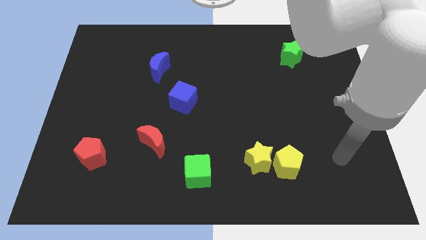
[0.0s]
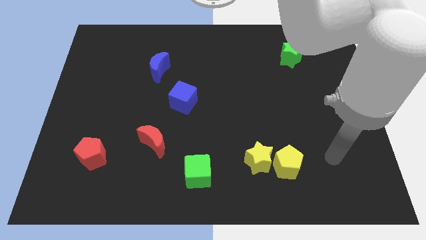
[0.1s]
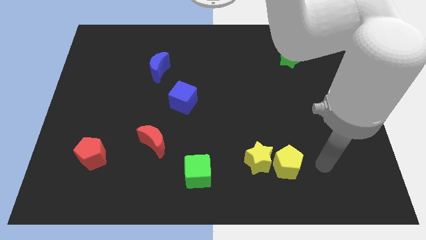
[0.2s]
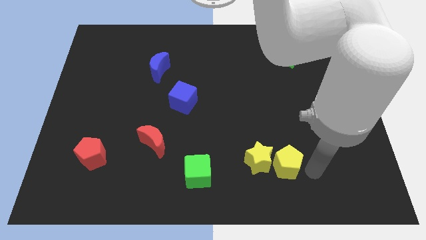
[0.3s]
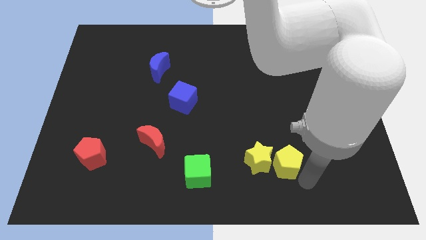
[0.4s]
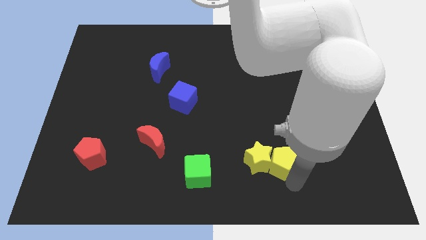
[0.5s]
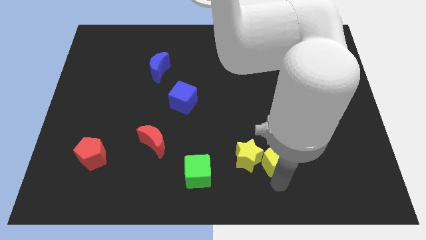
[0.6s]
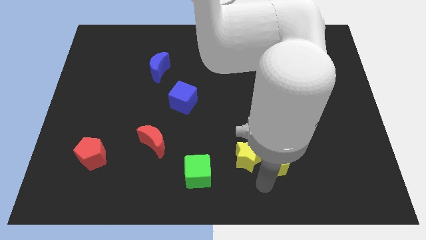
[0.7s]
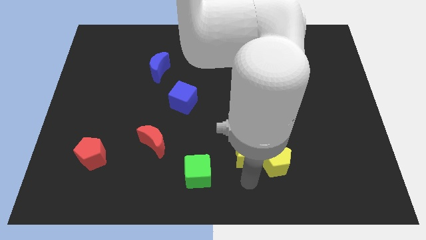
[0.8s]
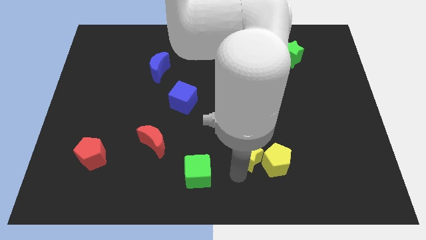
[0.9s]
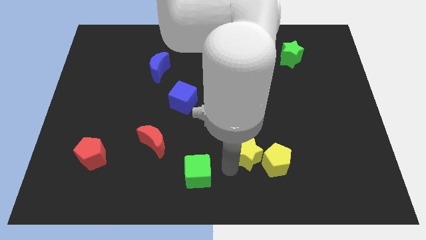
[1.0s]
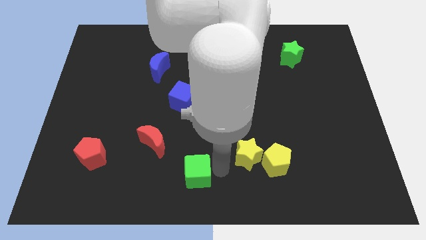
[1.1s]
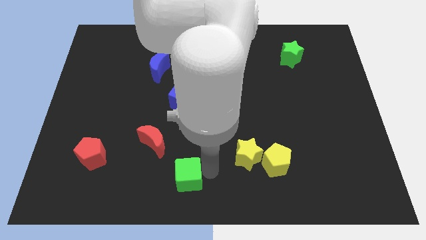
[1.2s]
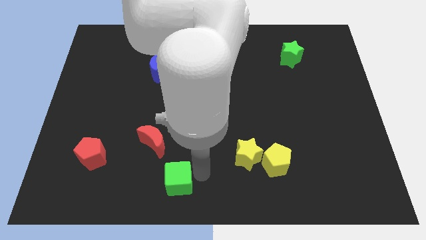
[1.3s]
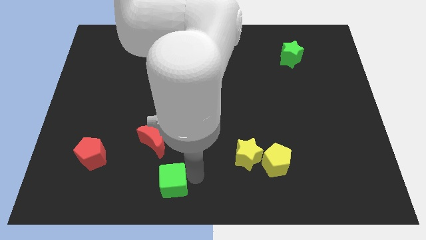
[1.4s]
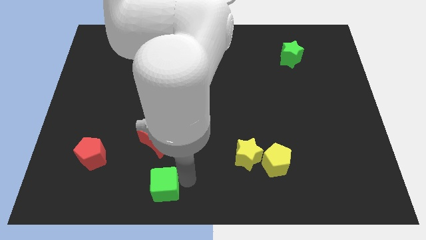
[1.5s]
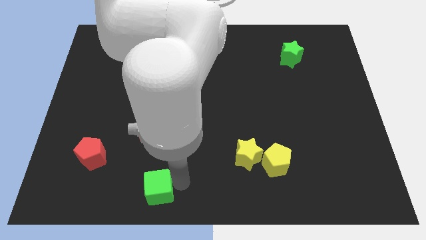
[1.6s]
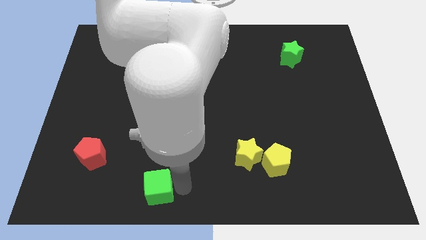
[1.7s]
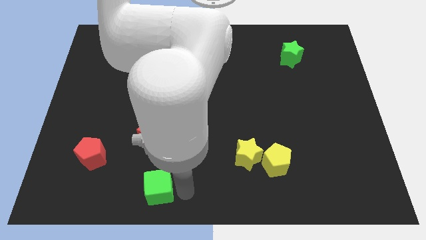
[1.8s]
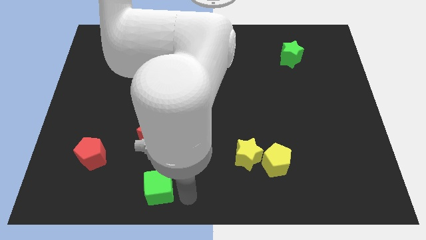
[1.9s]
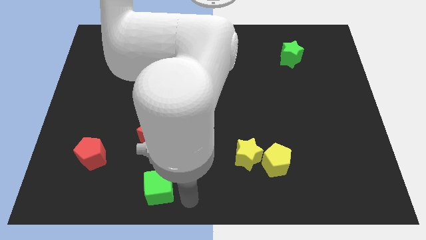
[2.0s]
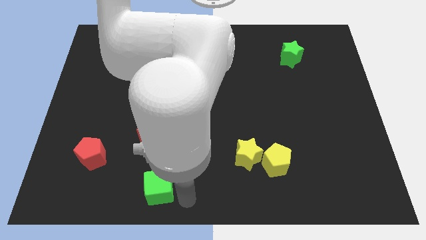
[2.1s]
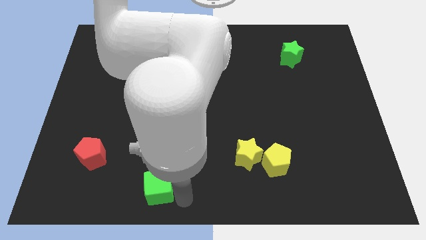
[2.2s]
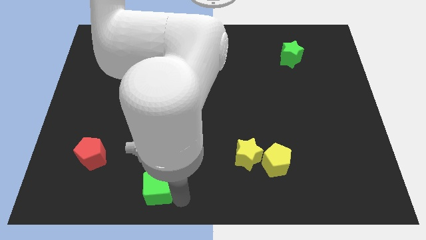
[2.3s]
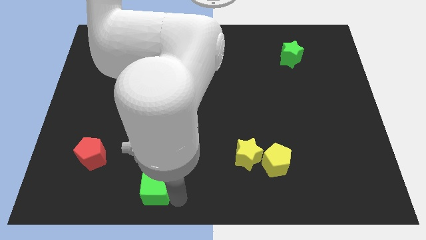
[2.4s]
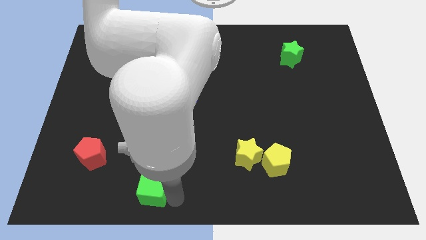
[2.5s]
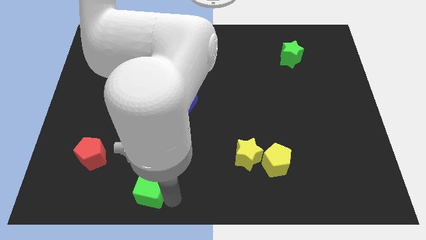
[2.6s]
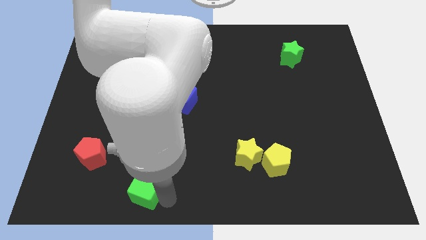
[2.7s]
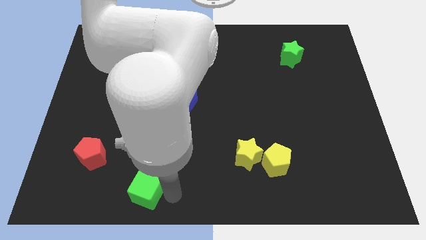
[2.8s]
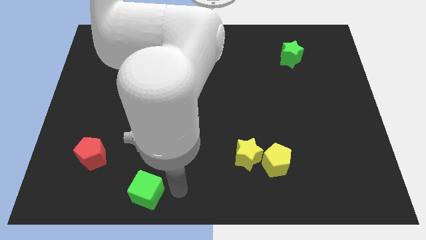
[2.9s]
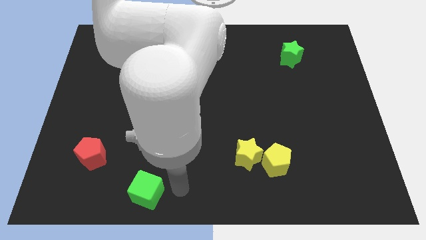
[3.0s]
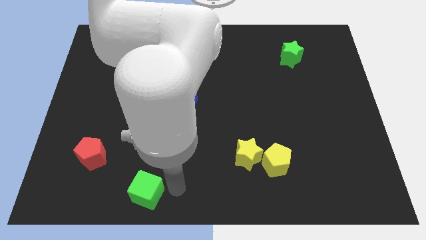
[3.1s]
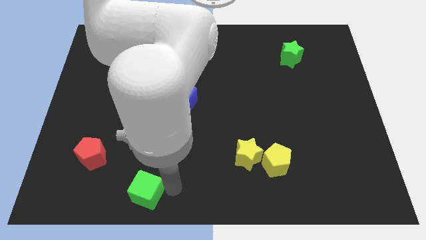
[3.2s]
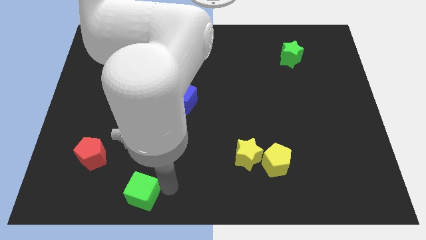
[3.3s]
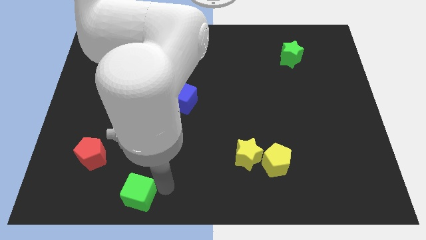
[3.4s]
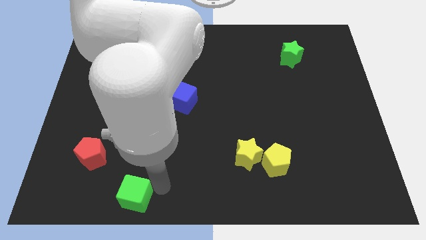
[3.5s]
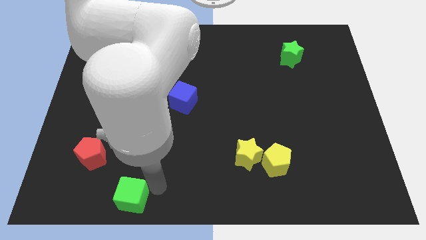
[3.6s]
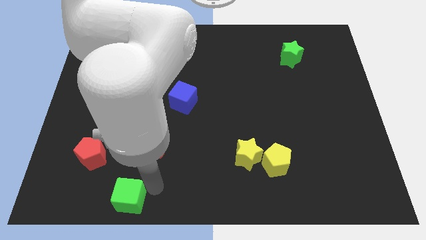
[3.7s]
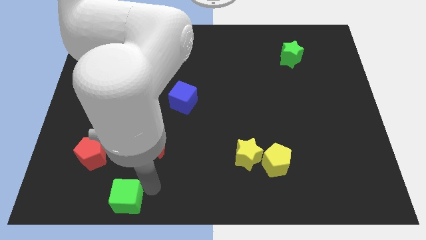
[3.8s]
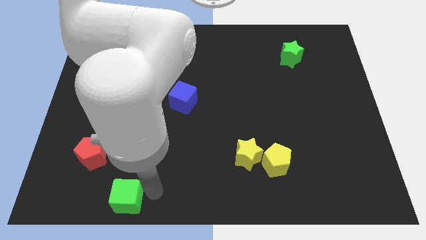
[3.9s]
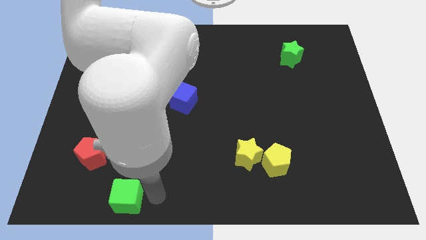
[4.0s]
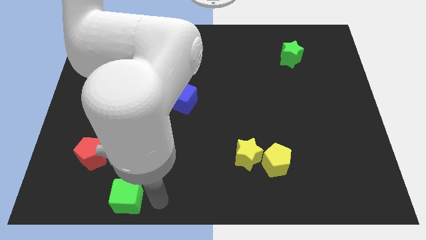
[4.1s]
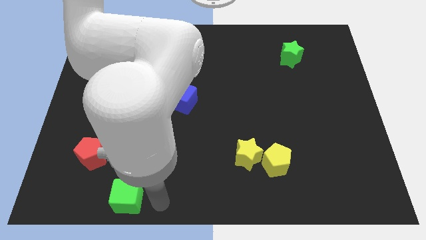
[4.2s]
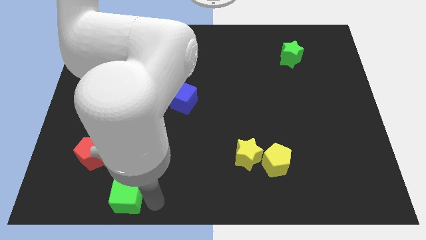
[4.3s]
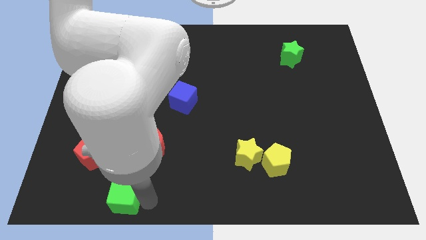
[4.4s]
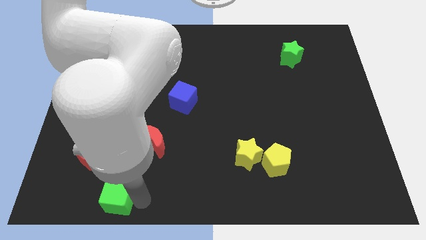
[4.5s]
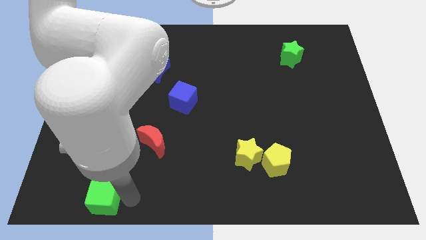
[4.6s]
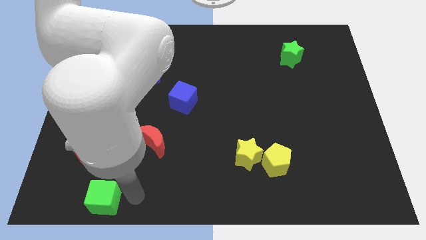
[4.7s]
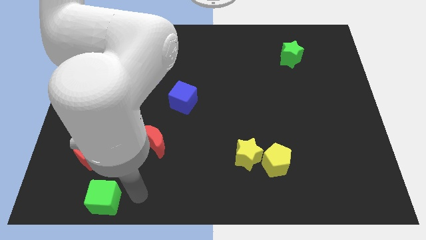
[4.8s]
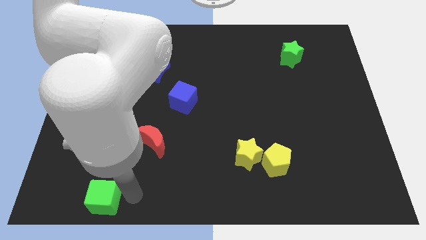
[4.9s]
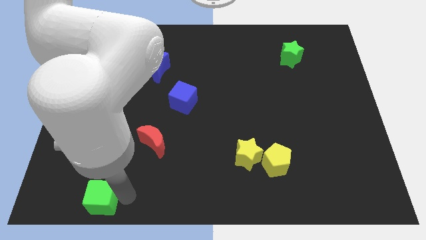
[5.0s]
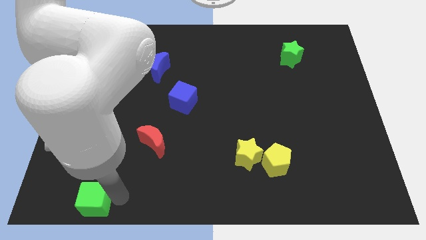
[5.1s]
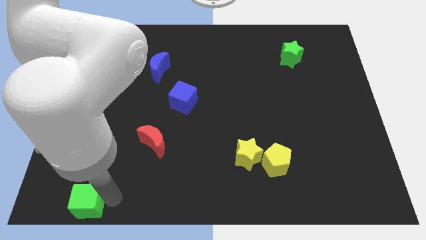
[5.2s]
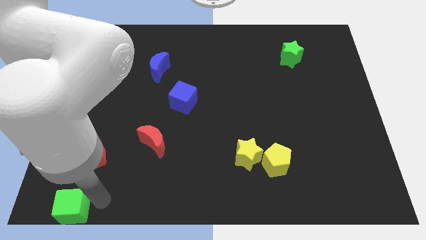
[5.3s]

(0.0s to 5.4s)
put the green cube to the bottom left of the board

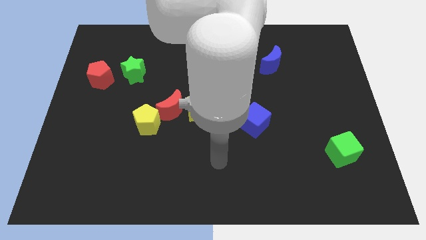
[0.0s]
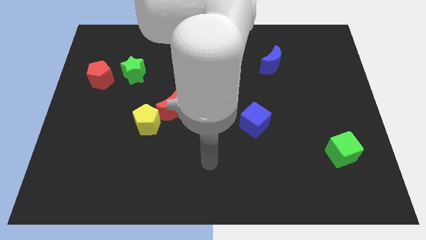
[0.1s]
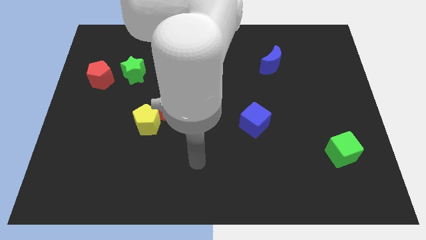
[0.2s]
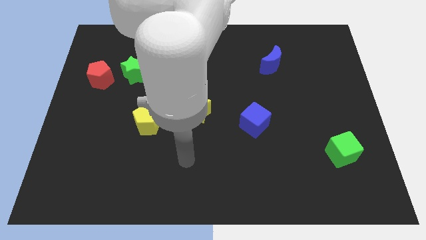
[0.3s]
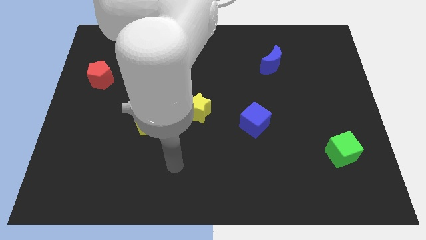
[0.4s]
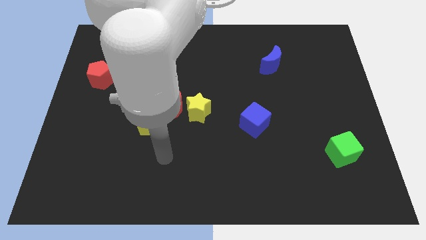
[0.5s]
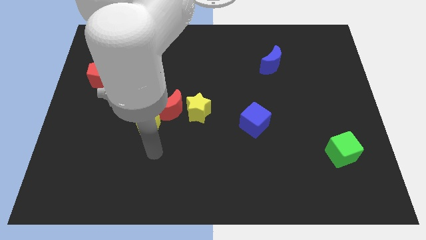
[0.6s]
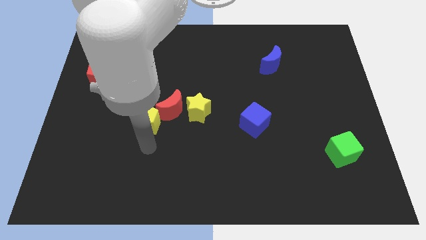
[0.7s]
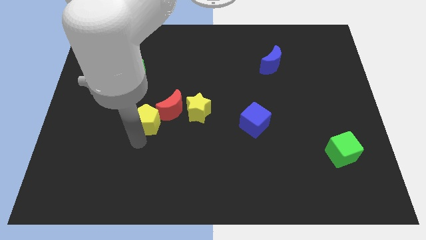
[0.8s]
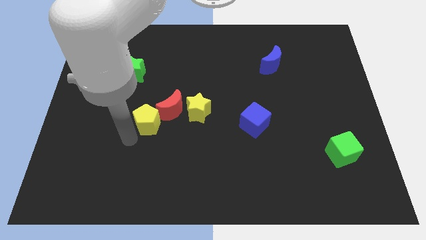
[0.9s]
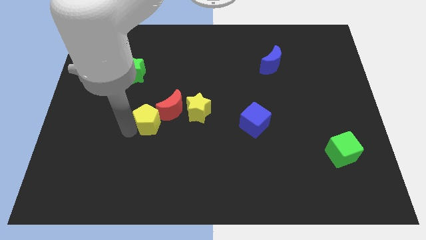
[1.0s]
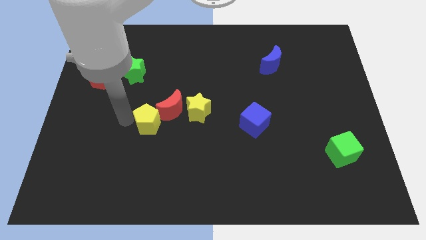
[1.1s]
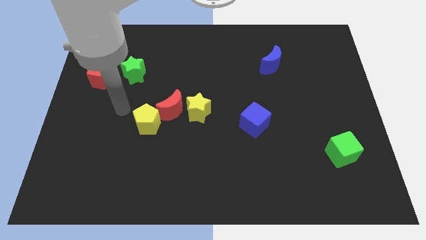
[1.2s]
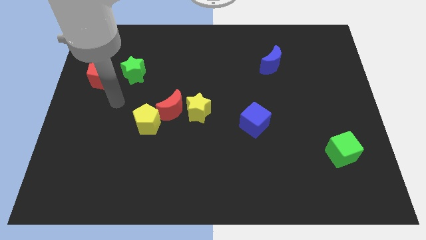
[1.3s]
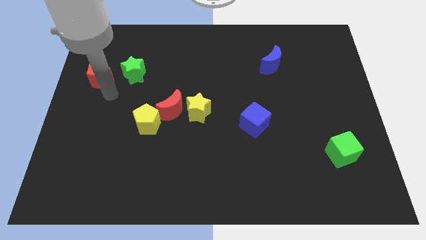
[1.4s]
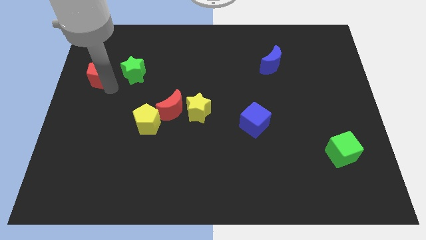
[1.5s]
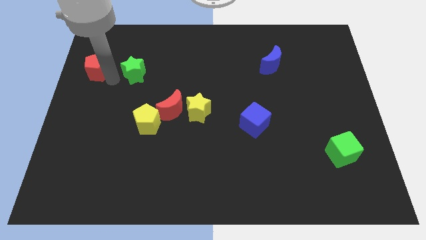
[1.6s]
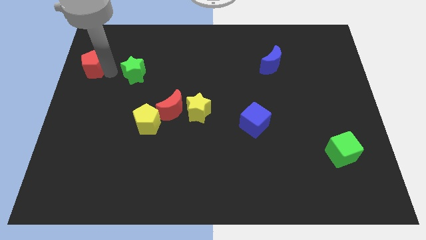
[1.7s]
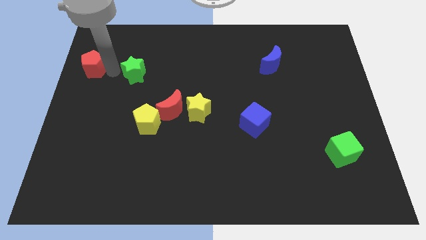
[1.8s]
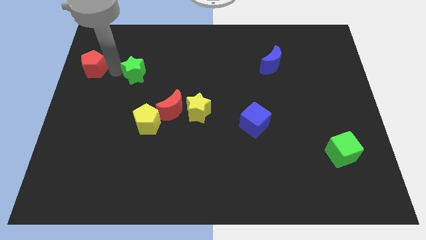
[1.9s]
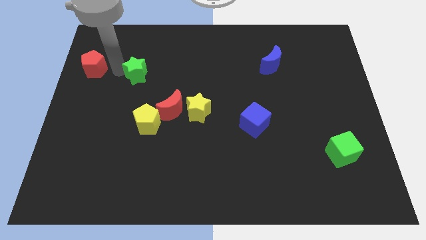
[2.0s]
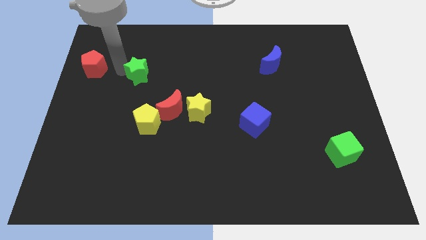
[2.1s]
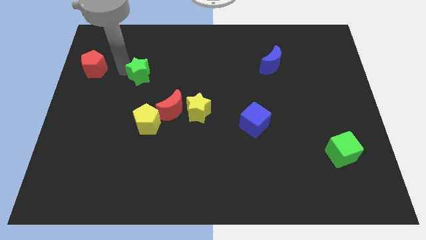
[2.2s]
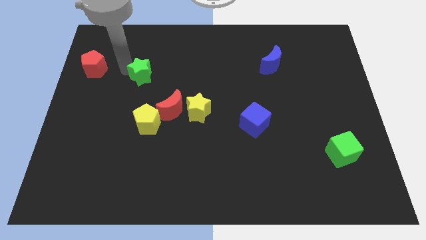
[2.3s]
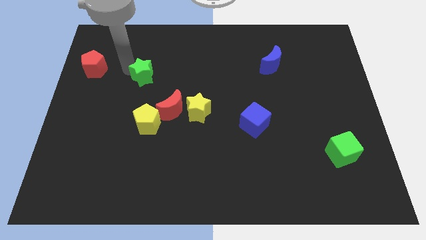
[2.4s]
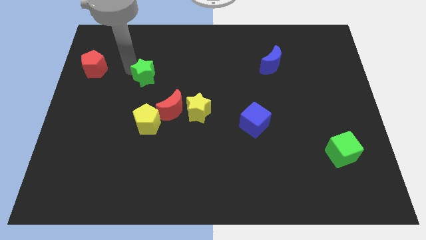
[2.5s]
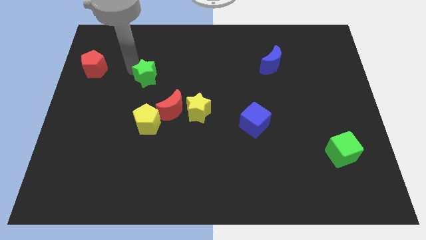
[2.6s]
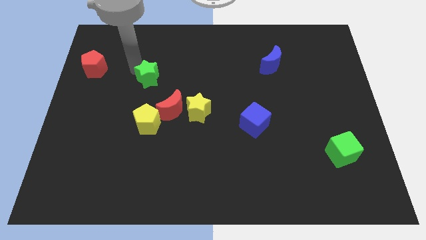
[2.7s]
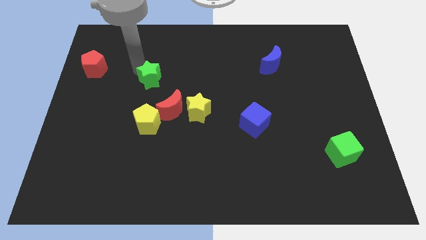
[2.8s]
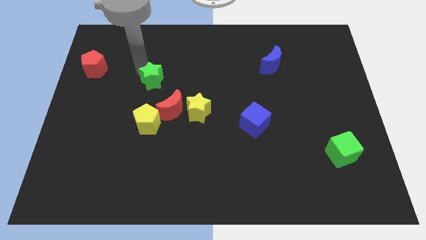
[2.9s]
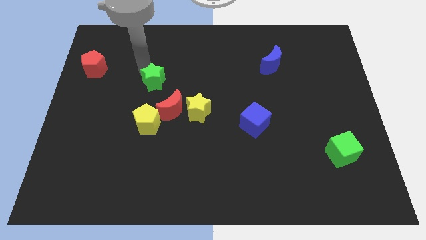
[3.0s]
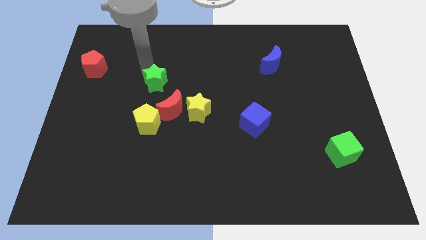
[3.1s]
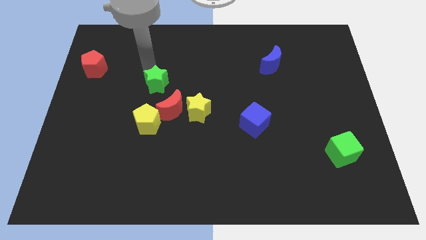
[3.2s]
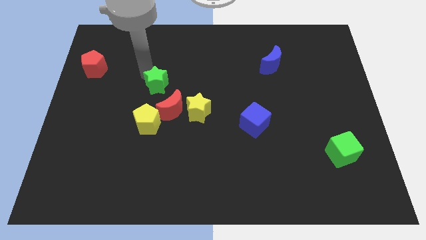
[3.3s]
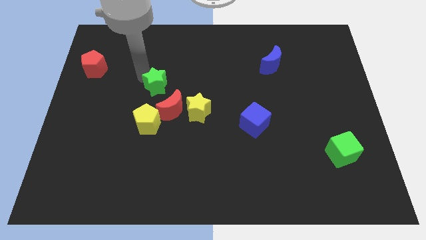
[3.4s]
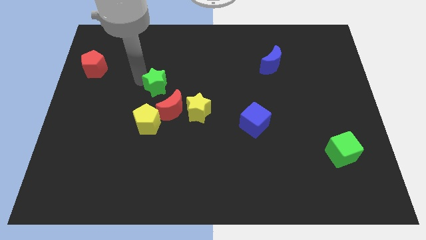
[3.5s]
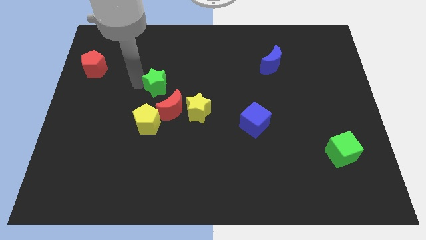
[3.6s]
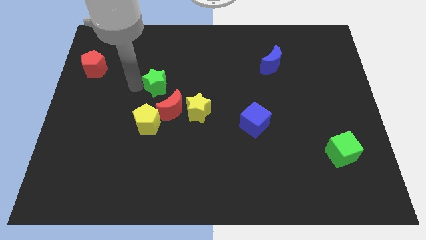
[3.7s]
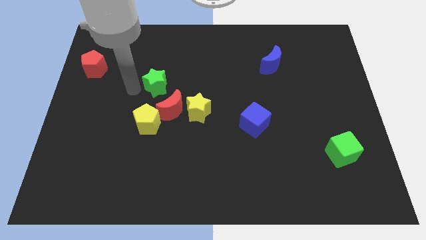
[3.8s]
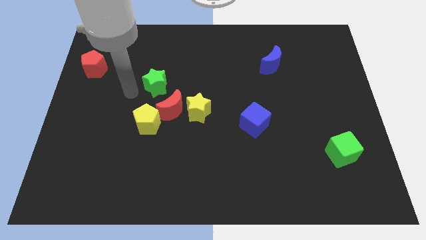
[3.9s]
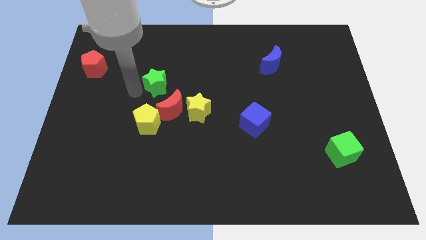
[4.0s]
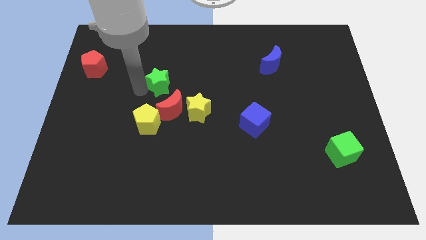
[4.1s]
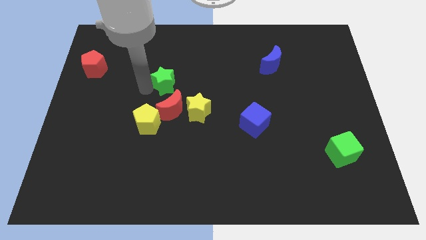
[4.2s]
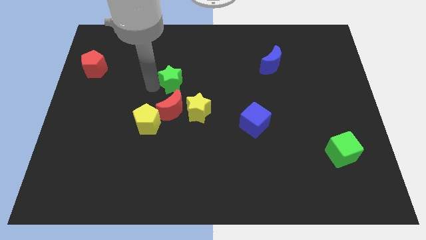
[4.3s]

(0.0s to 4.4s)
push the green star to the middle
